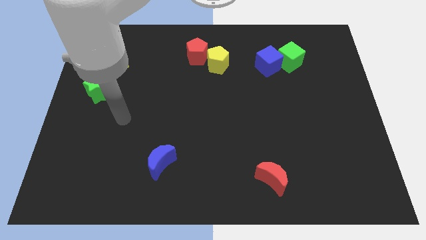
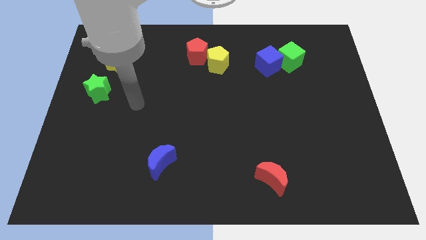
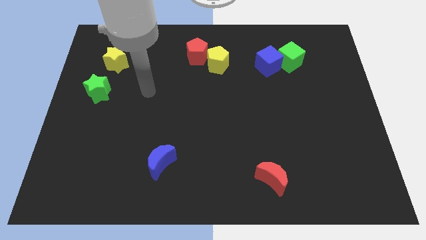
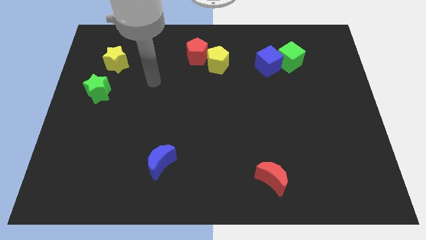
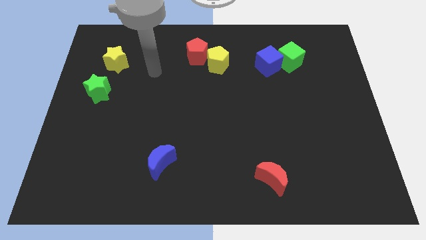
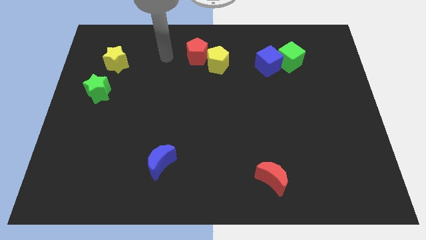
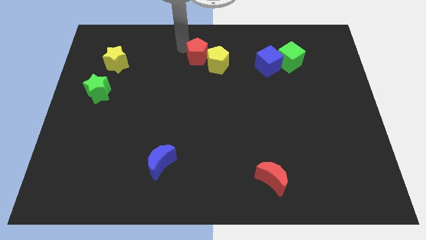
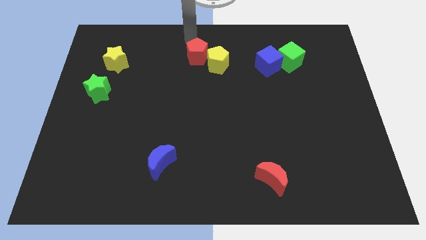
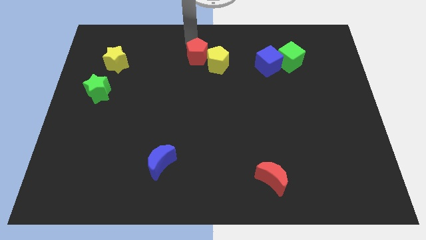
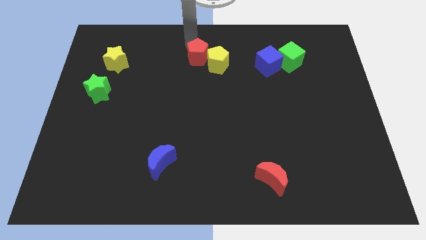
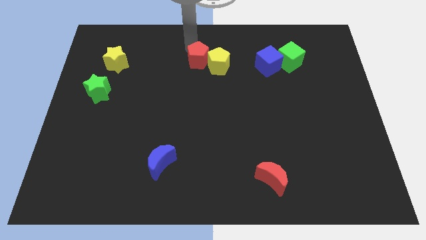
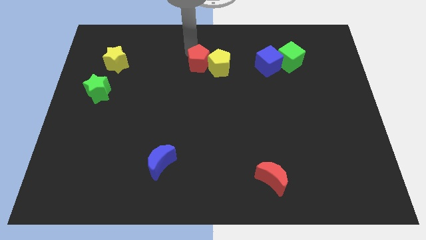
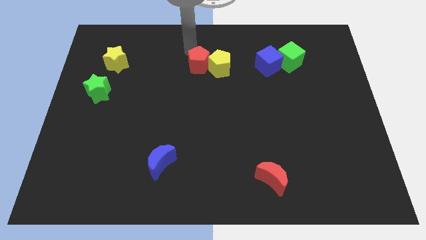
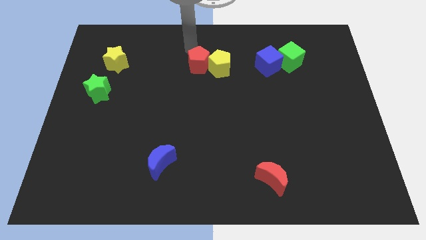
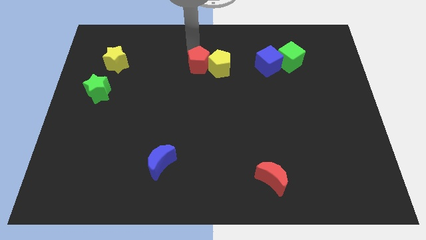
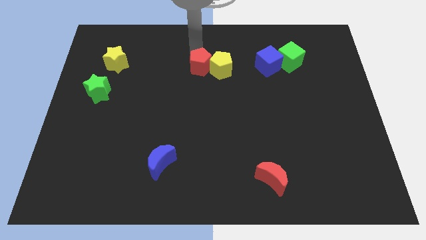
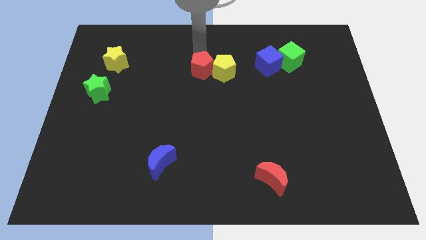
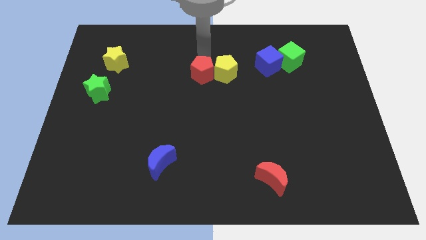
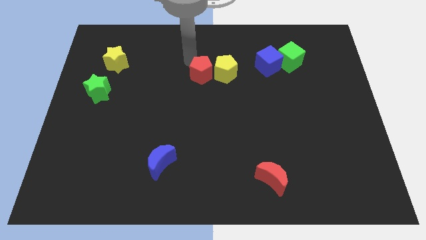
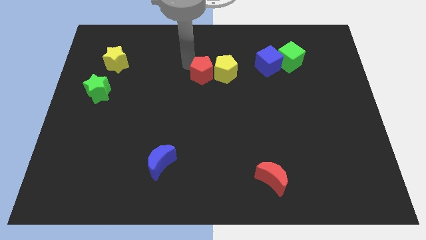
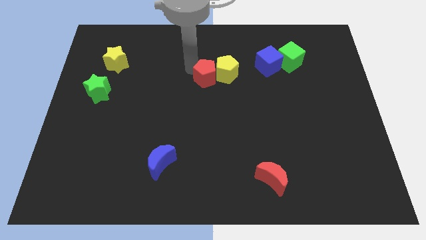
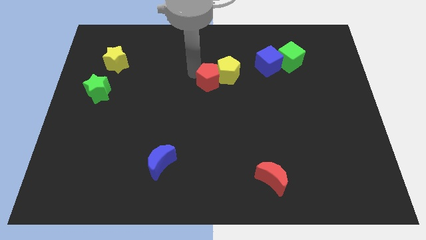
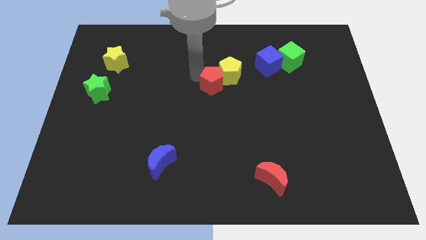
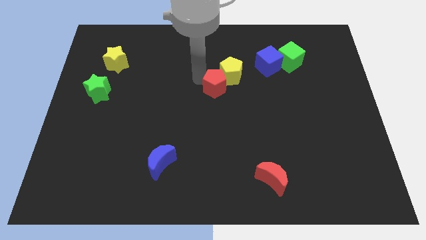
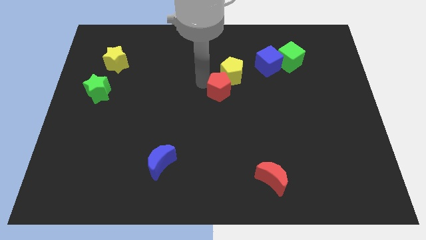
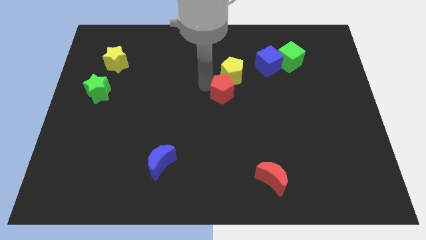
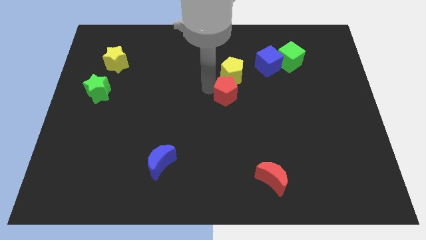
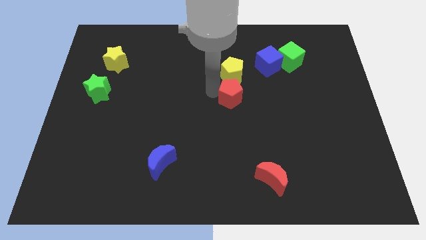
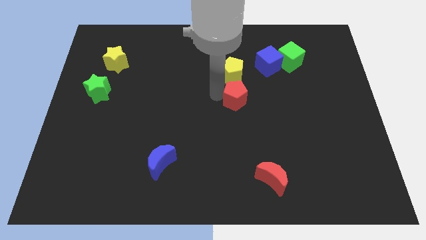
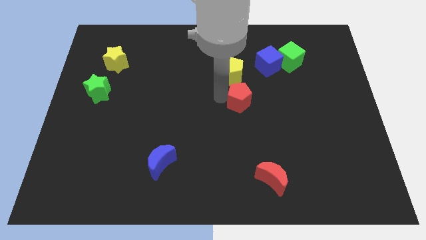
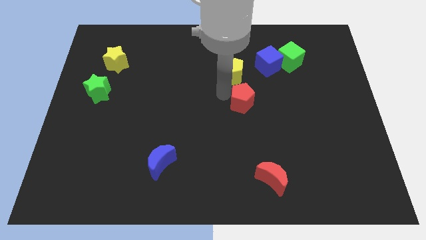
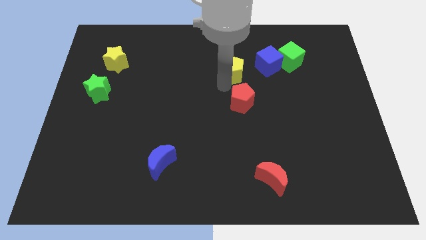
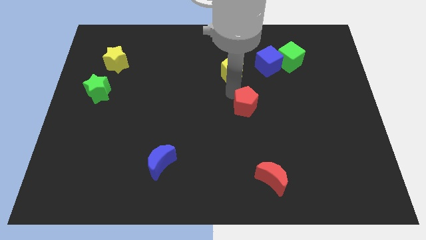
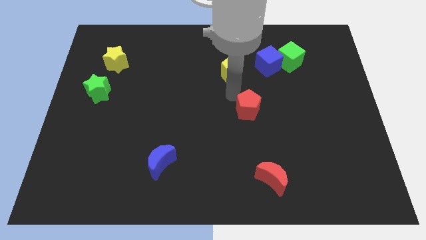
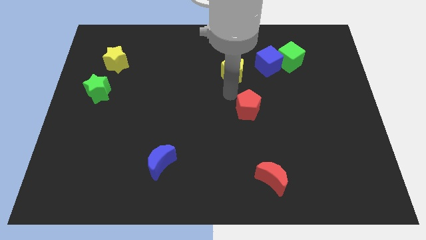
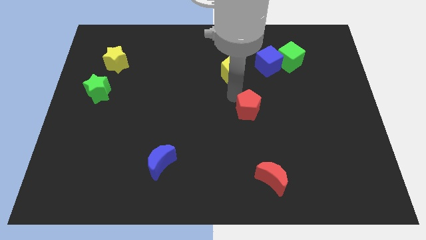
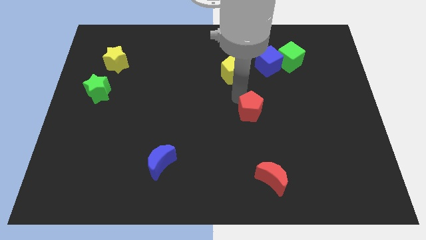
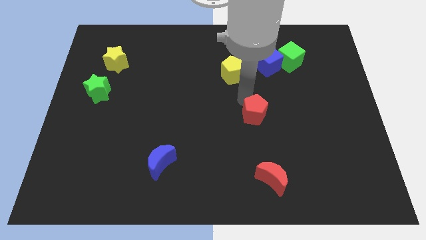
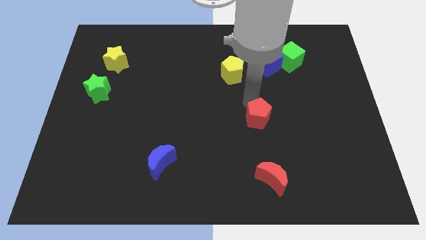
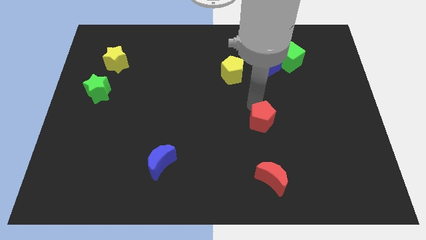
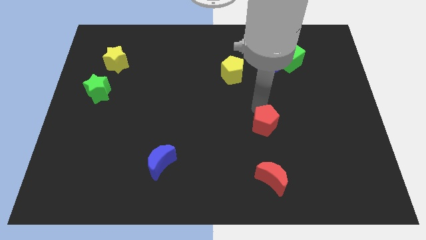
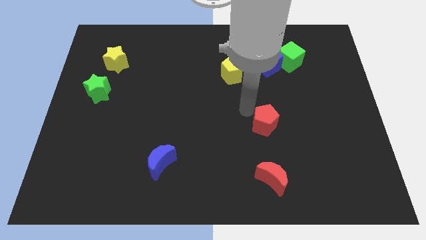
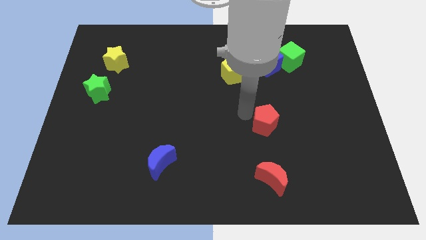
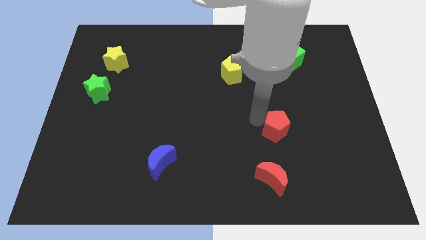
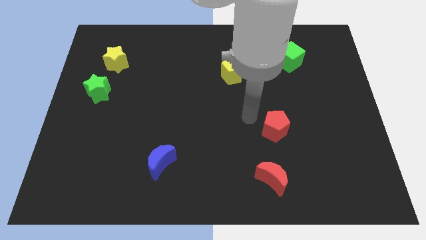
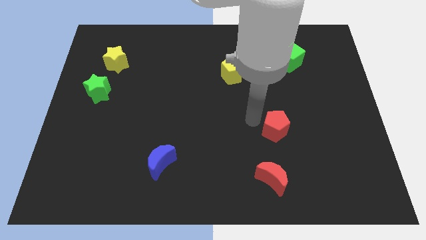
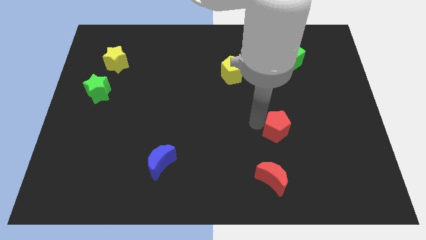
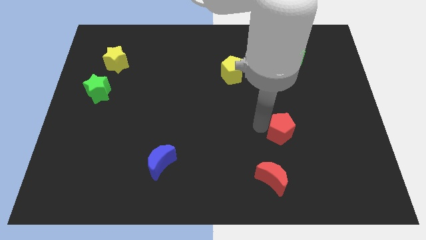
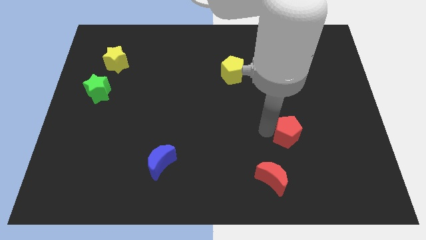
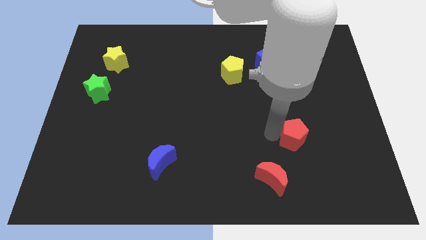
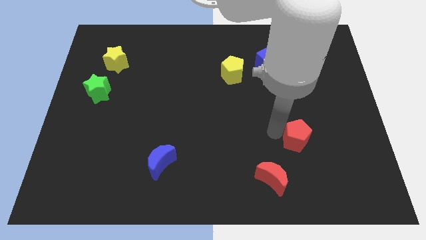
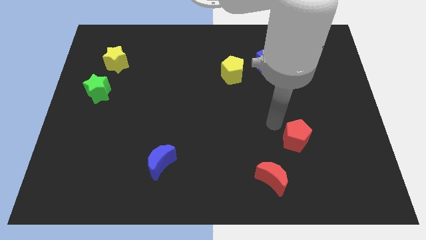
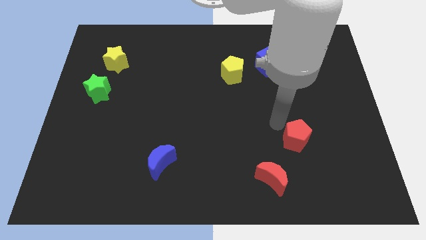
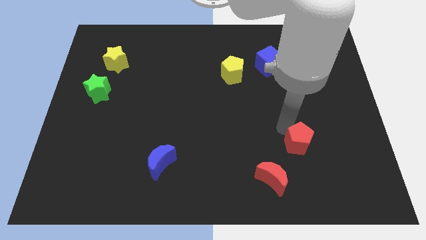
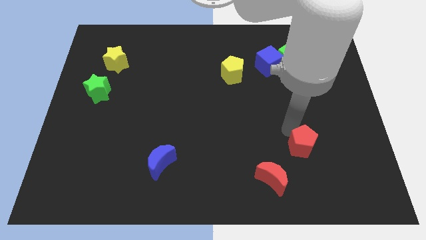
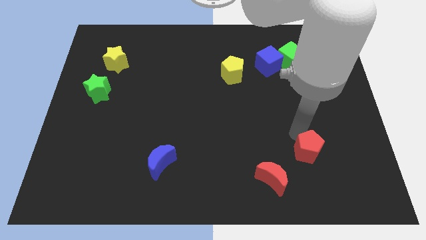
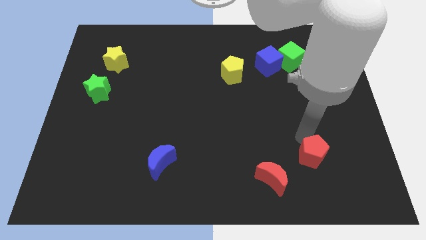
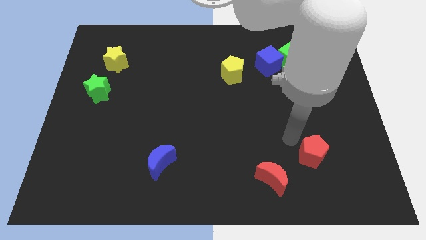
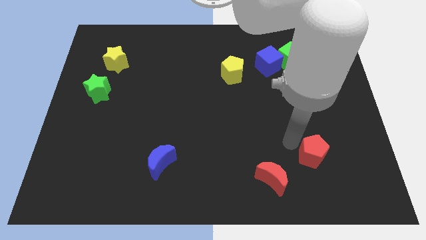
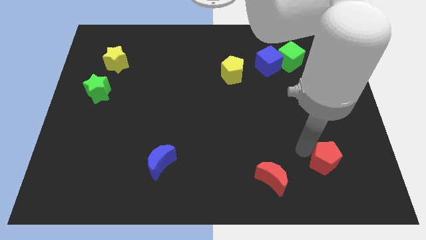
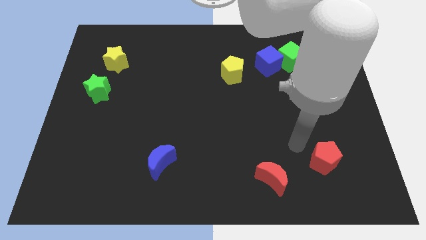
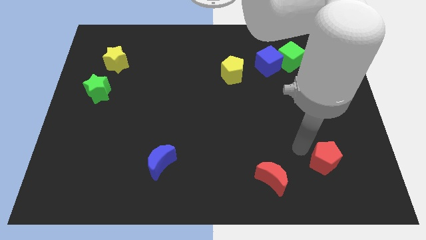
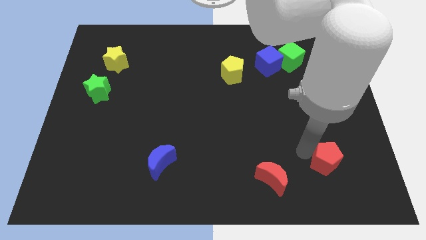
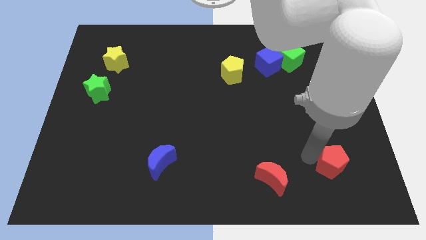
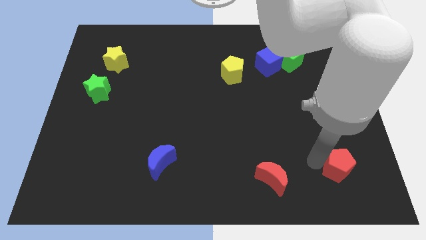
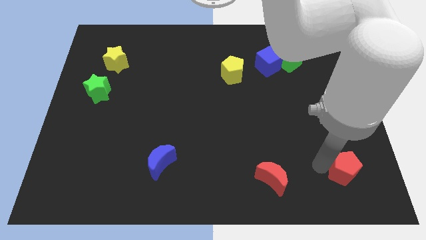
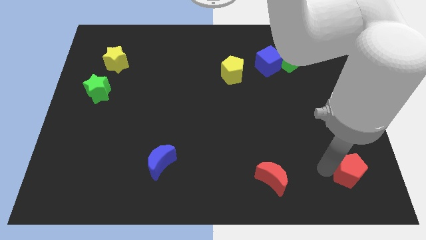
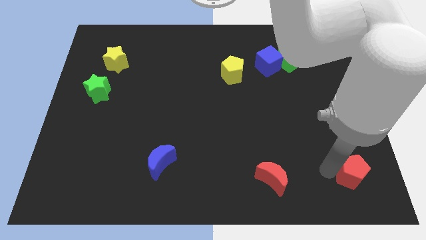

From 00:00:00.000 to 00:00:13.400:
move the red pentagon to the lower right corner
